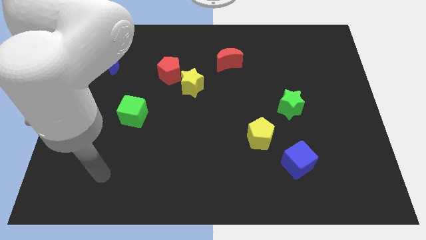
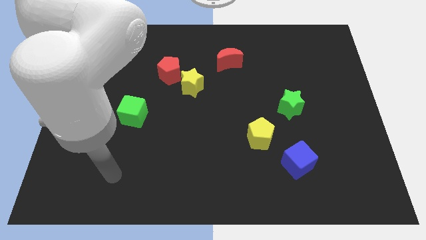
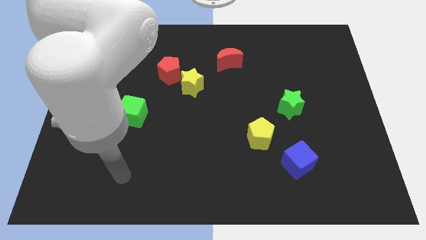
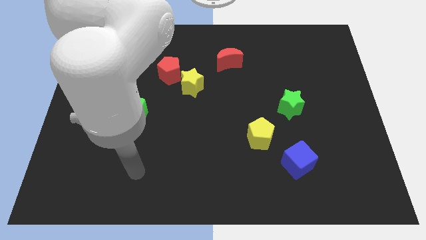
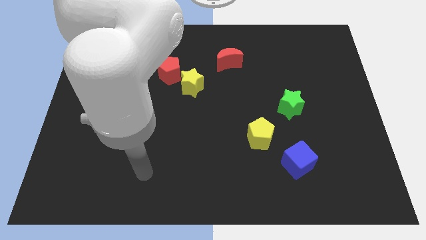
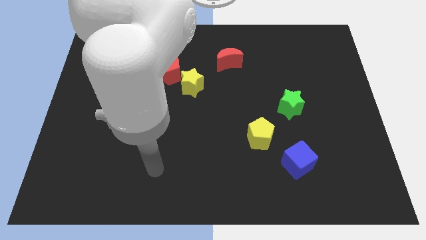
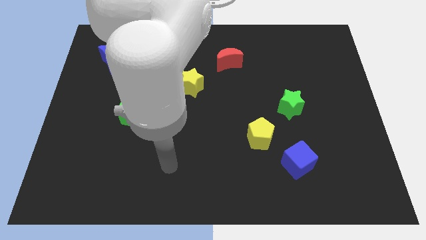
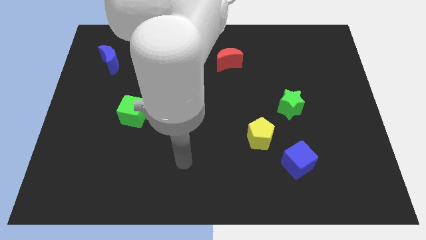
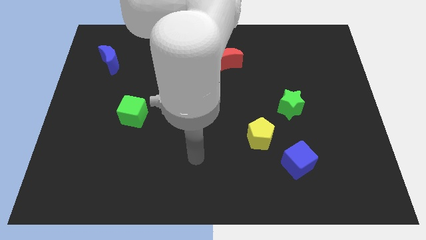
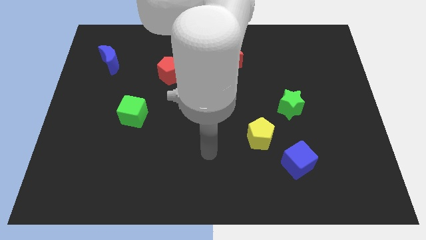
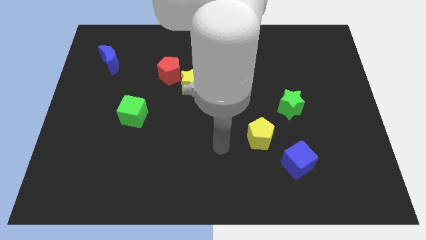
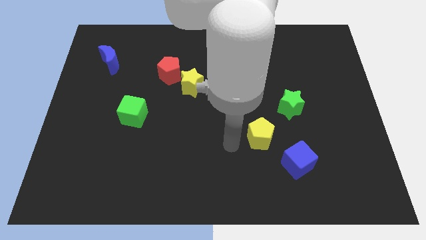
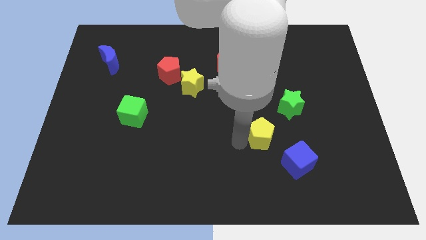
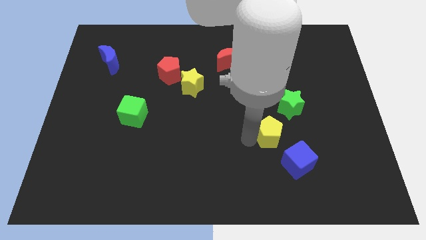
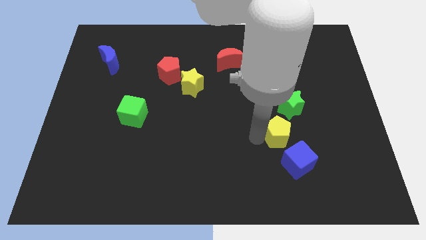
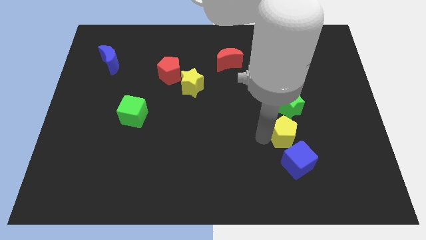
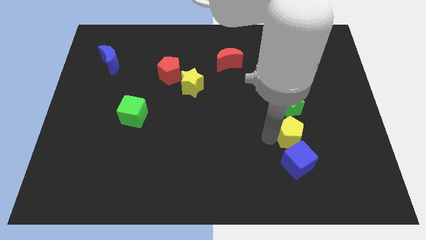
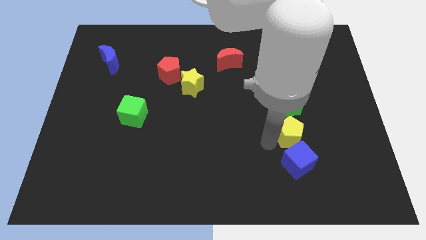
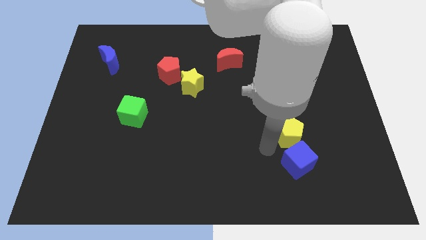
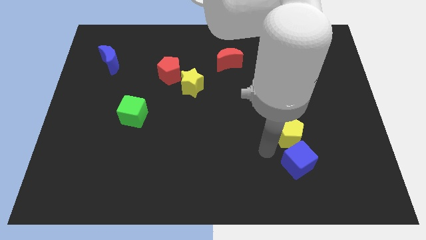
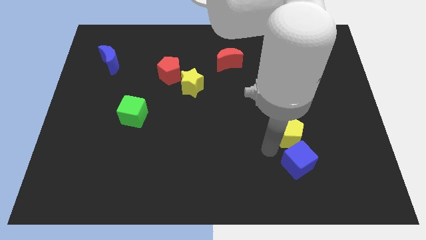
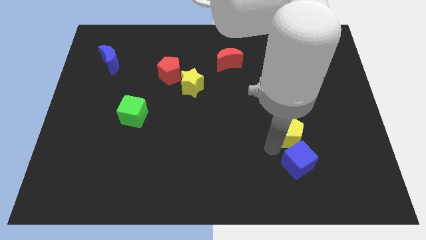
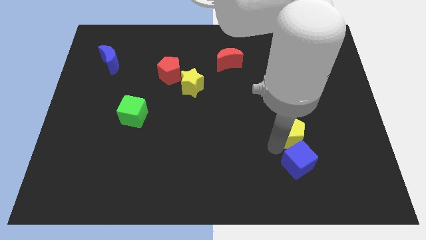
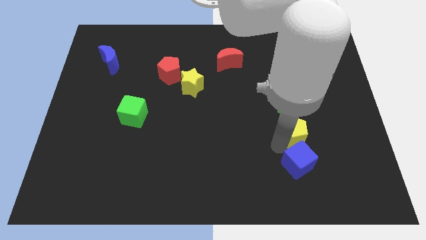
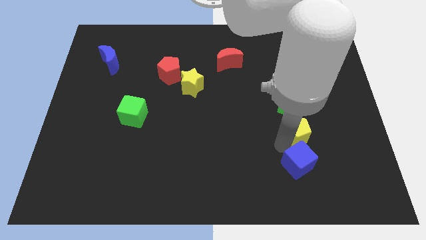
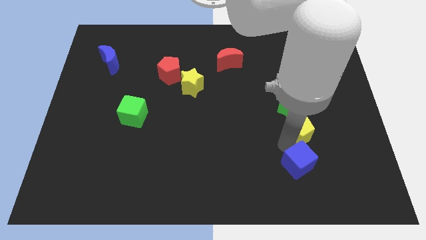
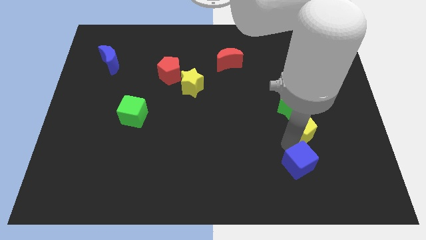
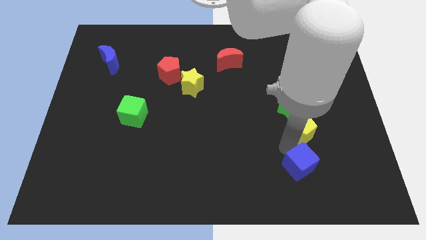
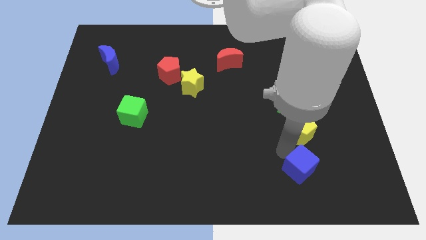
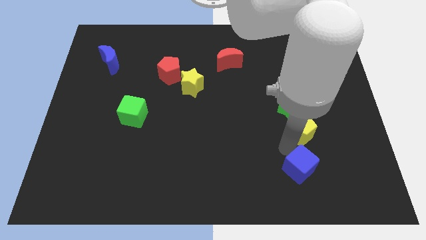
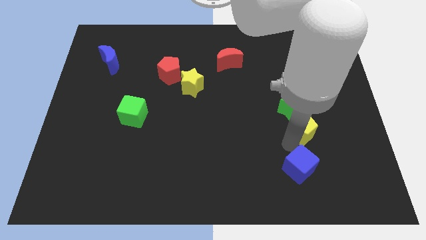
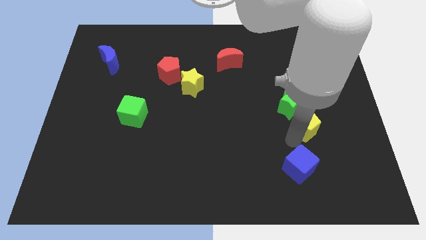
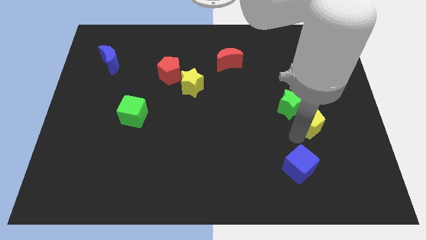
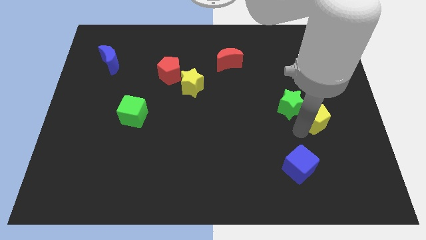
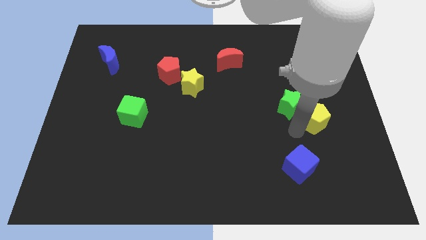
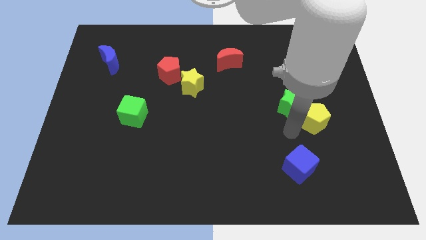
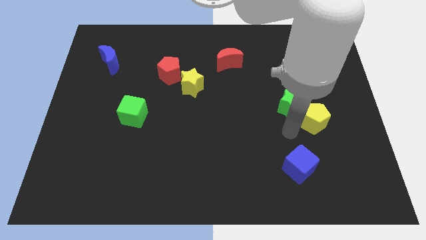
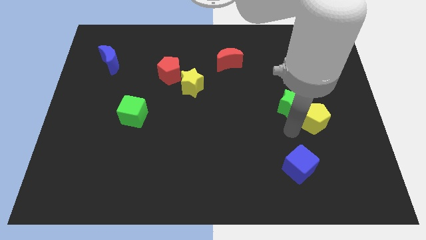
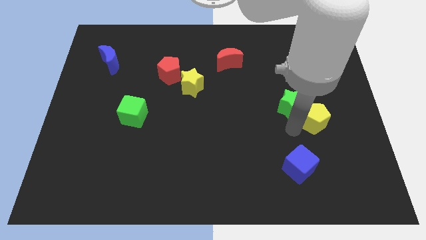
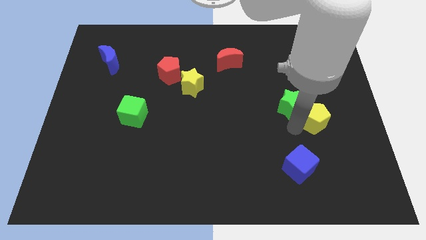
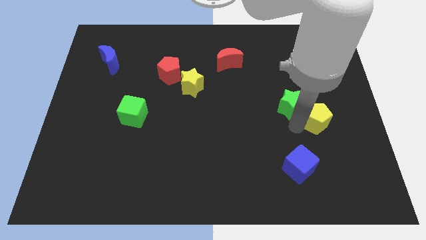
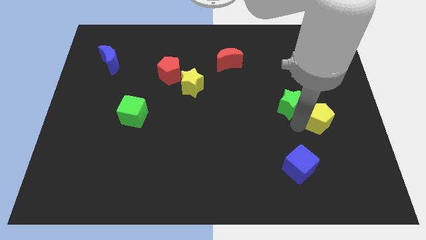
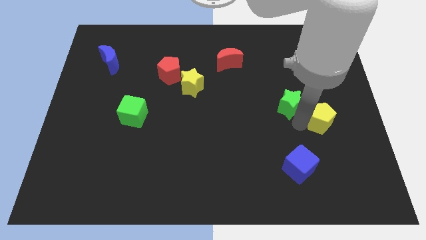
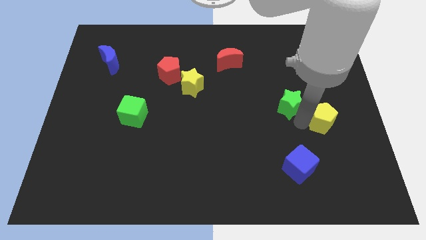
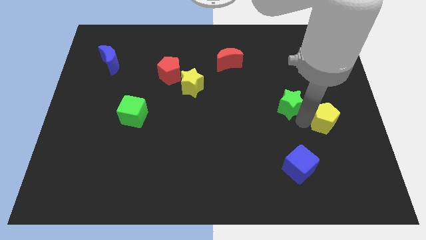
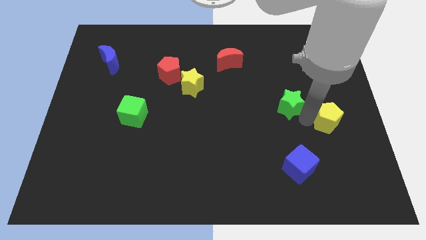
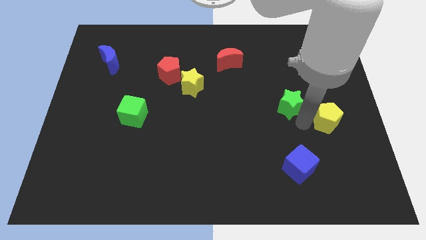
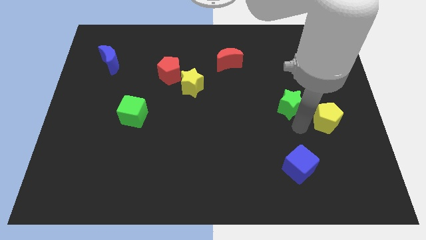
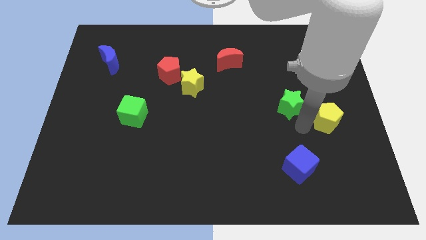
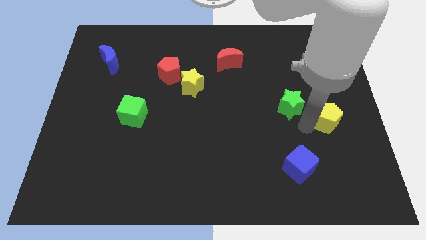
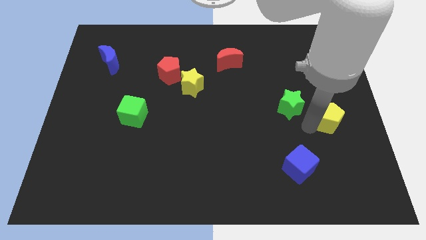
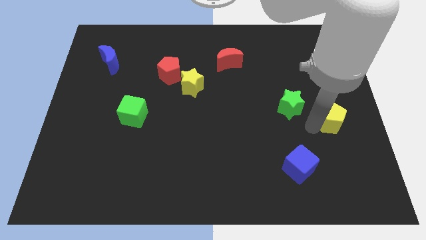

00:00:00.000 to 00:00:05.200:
put the yellow pentagon to the right side of the board

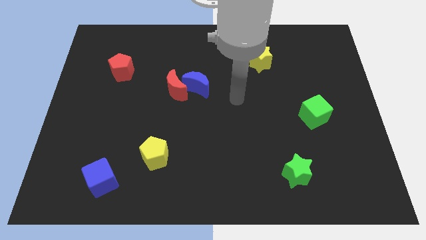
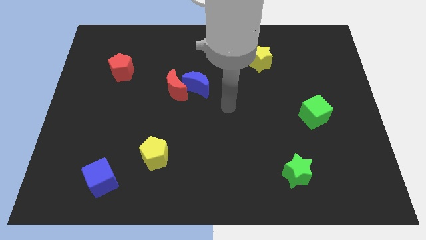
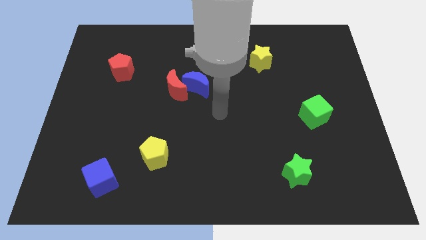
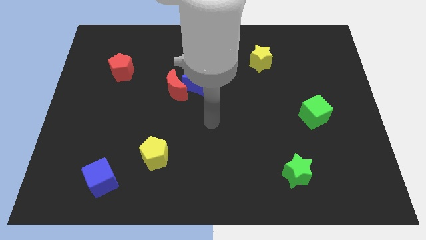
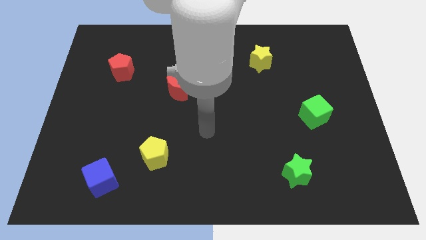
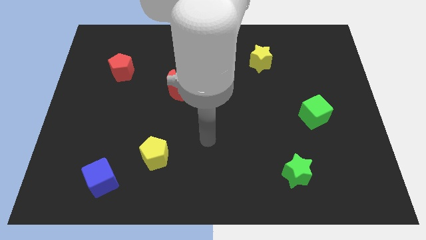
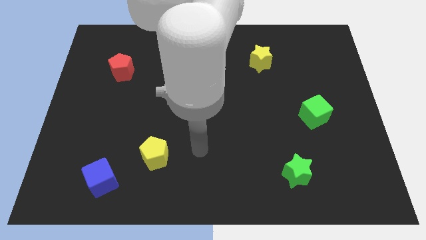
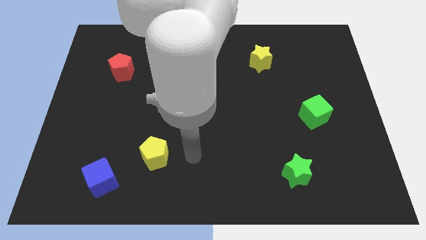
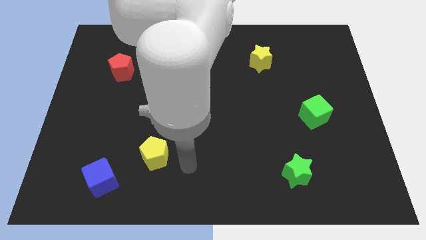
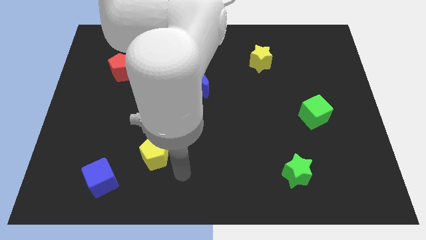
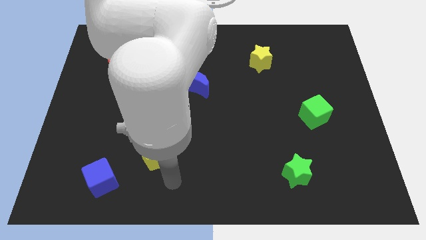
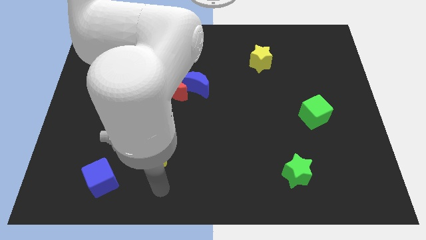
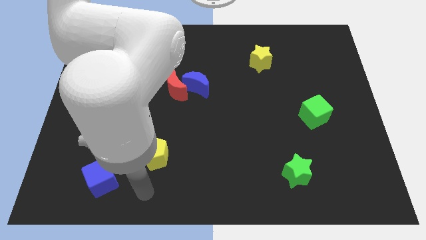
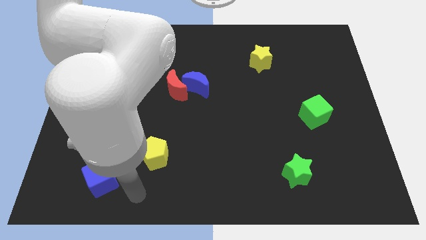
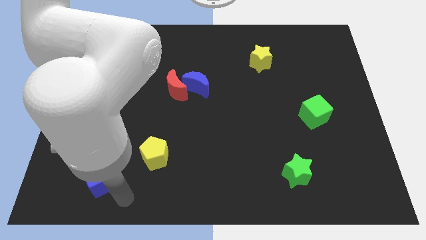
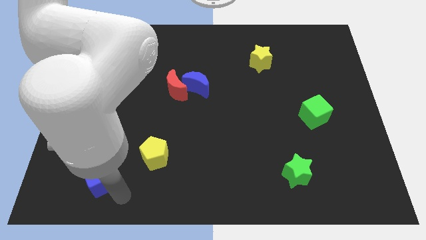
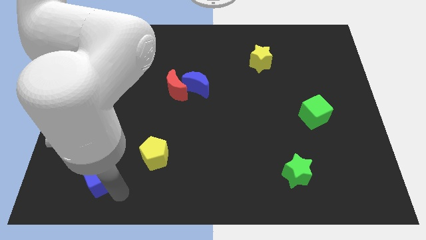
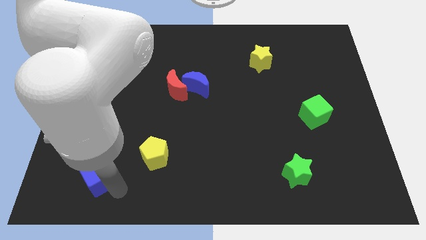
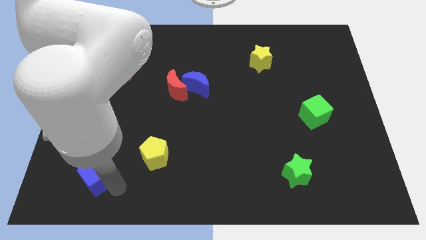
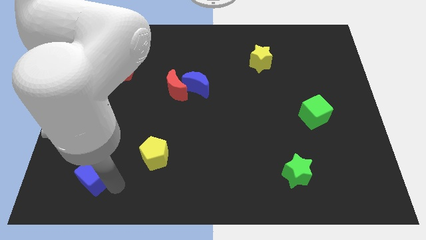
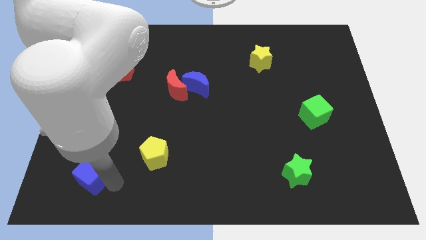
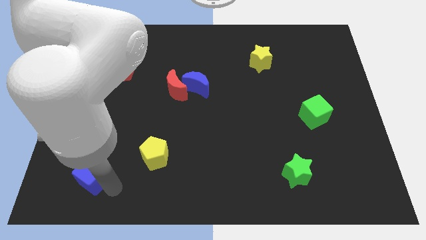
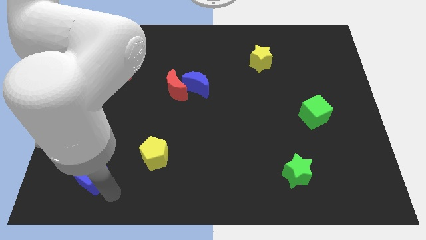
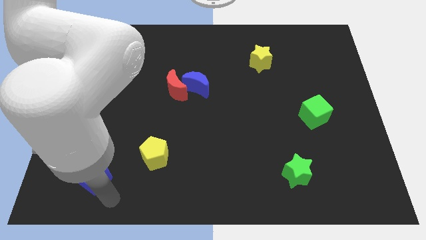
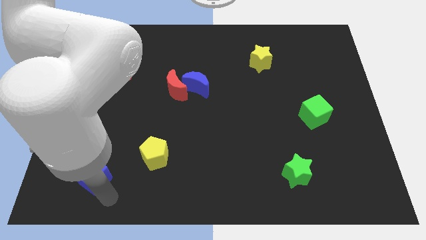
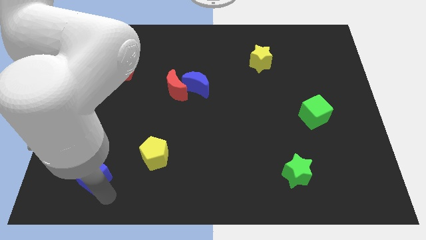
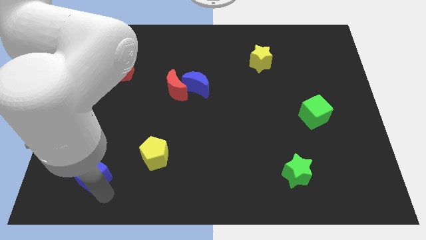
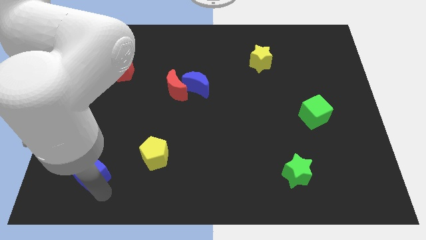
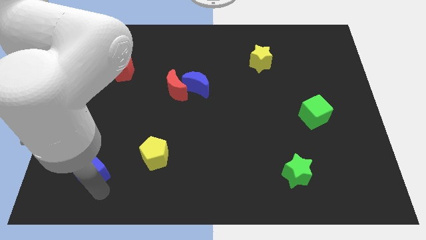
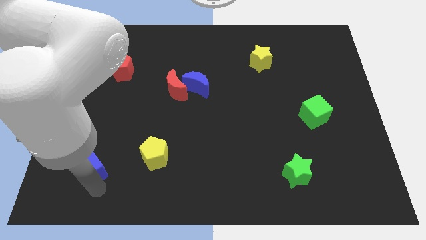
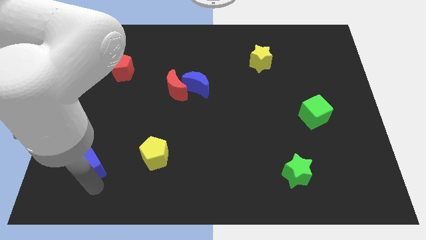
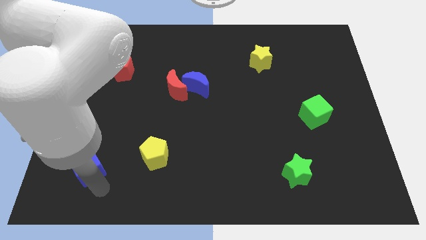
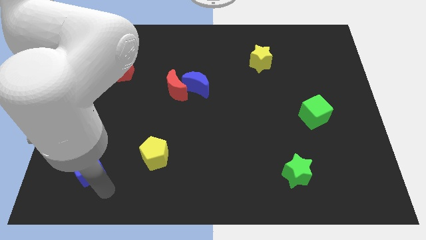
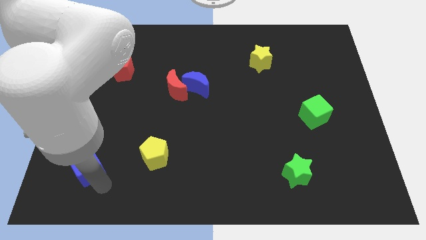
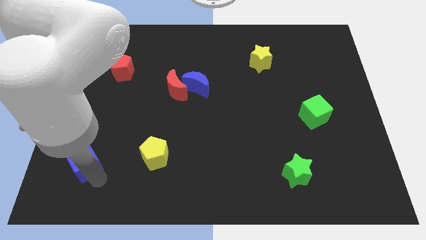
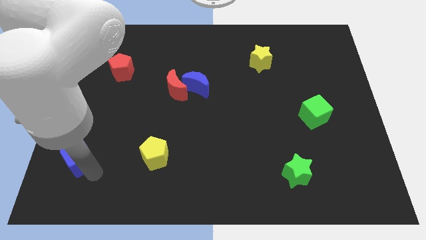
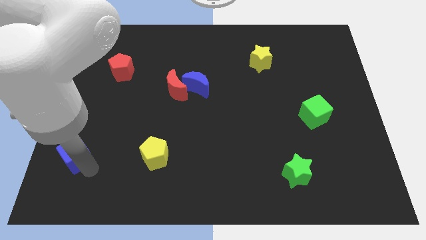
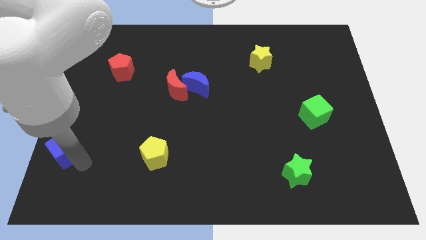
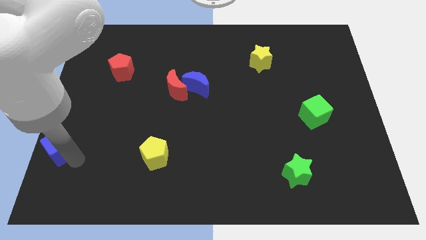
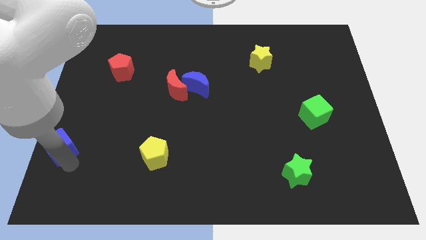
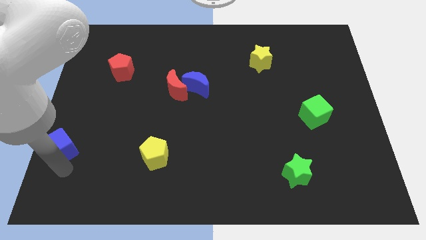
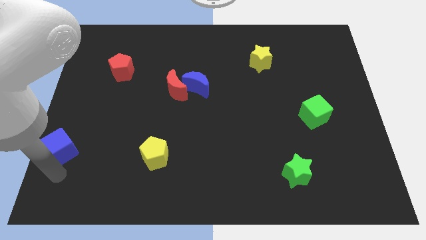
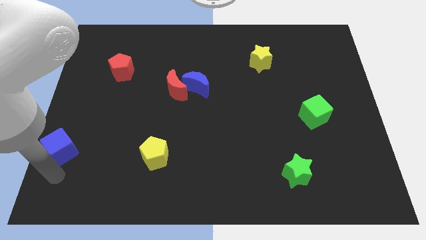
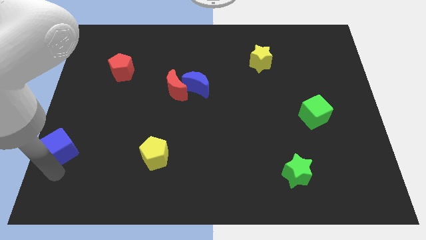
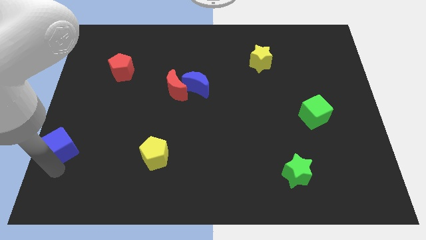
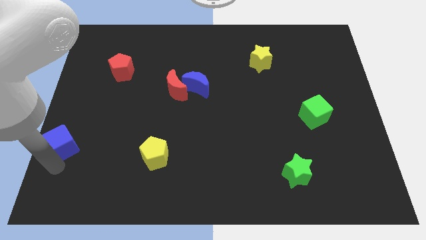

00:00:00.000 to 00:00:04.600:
move the blue cube to the left side
